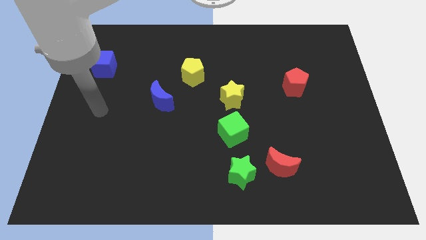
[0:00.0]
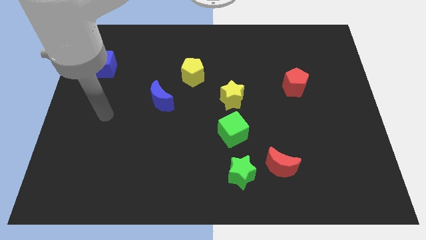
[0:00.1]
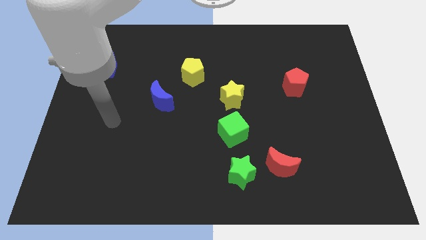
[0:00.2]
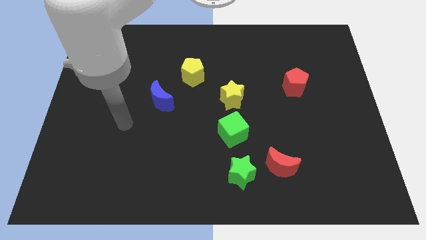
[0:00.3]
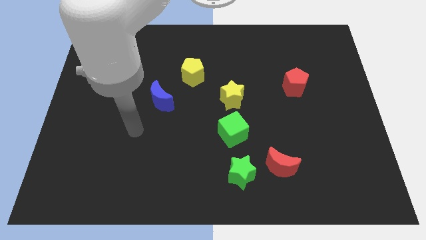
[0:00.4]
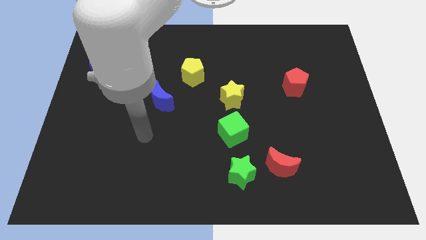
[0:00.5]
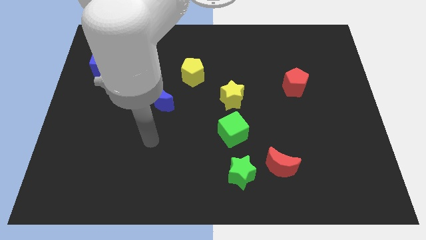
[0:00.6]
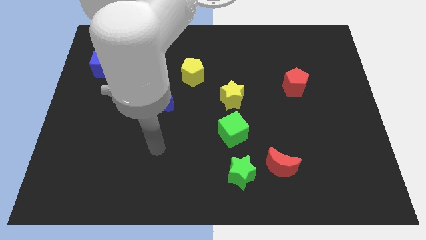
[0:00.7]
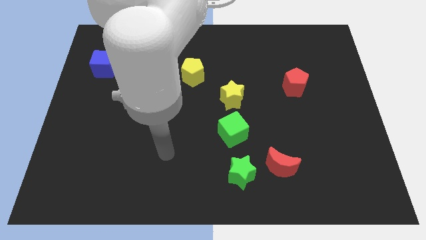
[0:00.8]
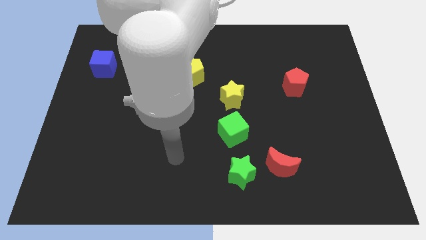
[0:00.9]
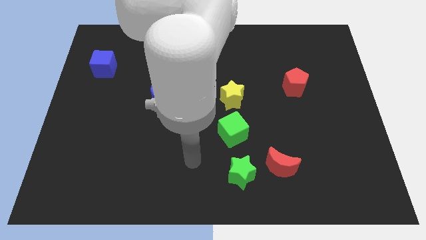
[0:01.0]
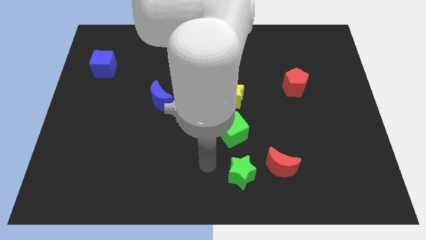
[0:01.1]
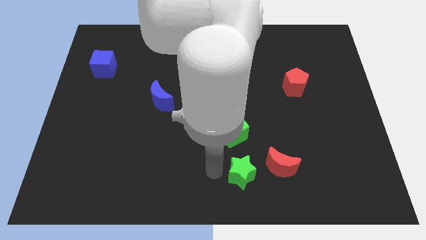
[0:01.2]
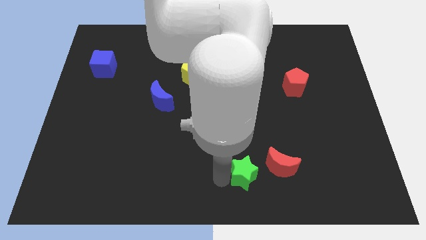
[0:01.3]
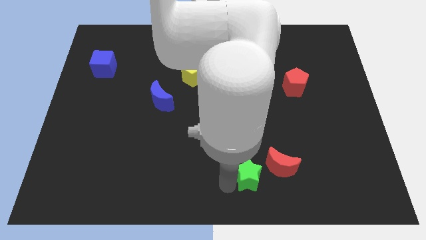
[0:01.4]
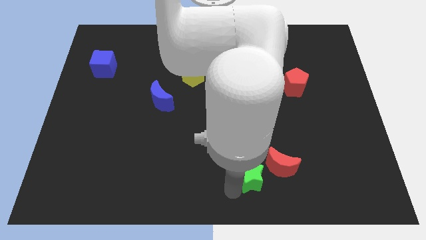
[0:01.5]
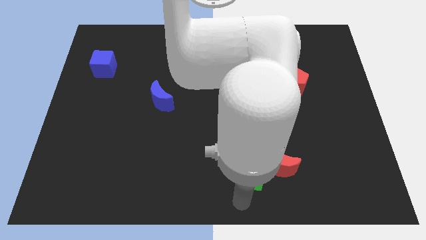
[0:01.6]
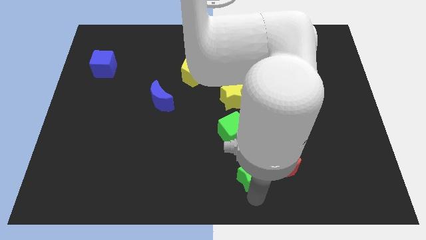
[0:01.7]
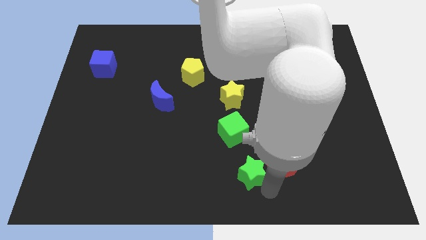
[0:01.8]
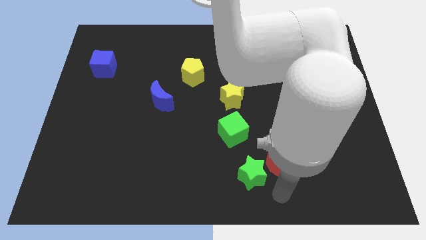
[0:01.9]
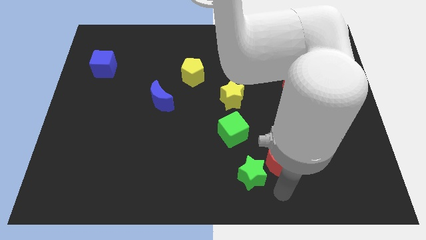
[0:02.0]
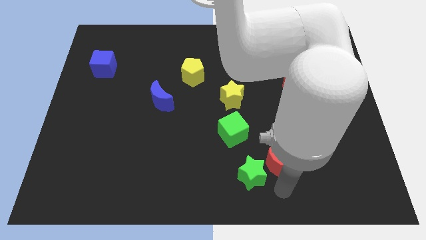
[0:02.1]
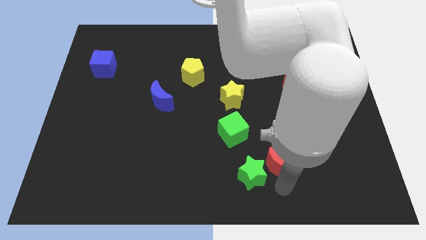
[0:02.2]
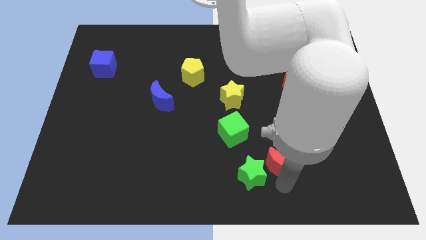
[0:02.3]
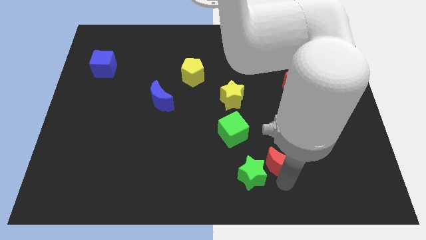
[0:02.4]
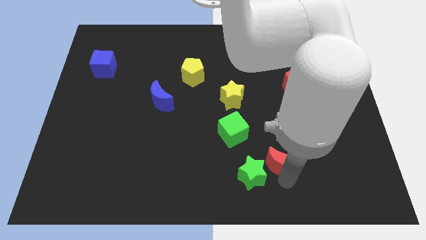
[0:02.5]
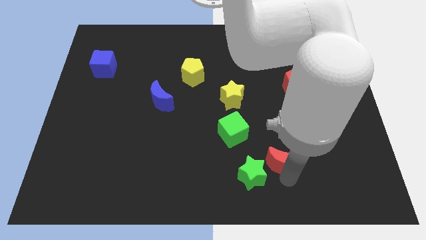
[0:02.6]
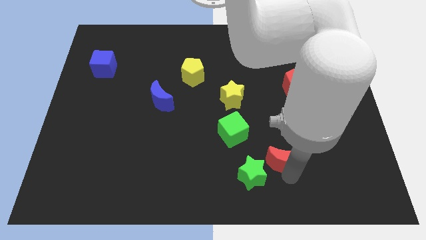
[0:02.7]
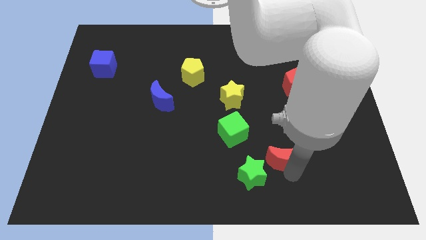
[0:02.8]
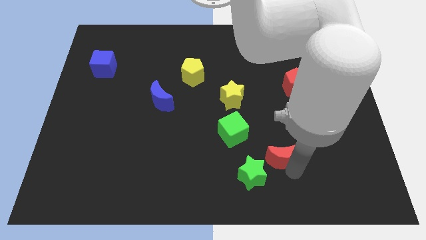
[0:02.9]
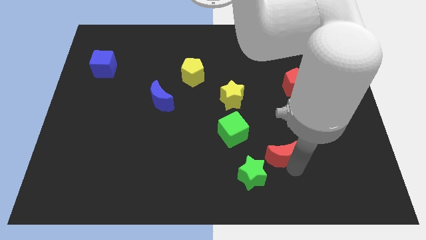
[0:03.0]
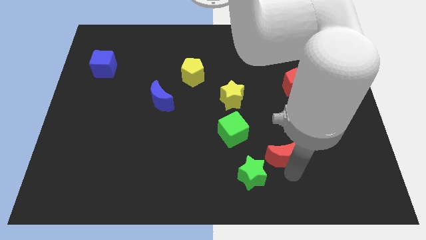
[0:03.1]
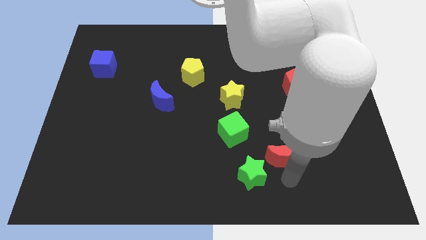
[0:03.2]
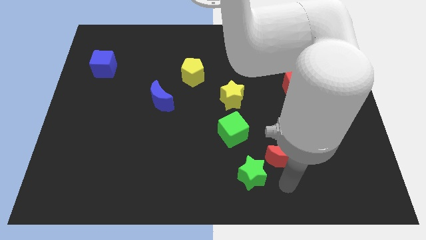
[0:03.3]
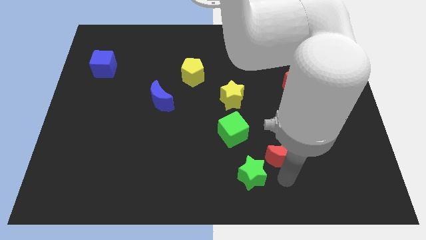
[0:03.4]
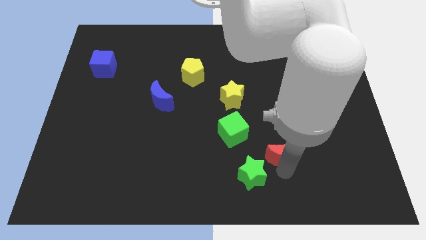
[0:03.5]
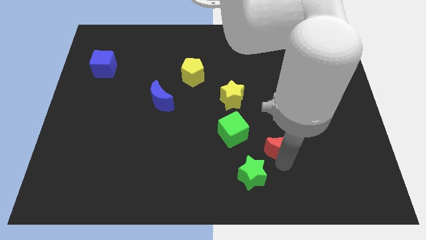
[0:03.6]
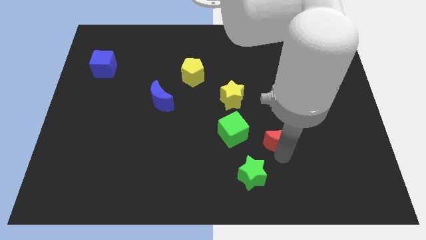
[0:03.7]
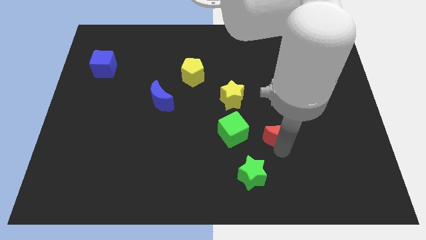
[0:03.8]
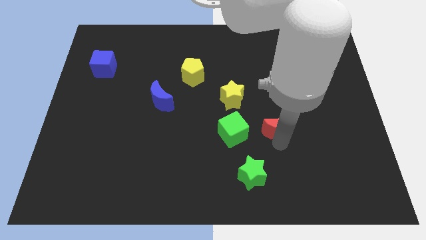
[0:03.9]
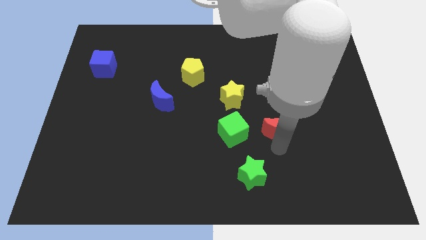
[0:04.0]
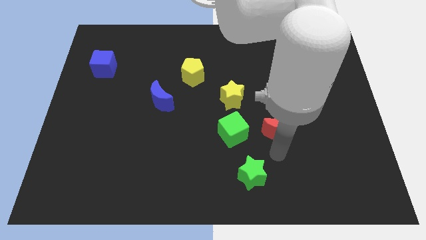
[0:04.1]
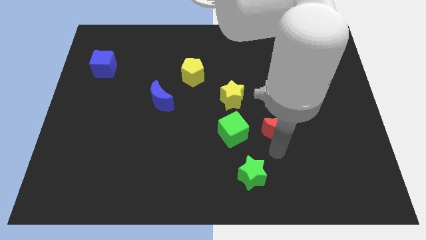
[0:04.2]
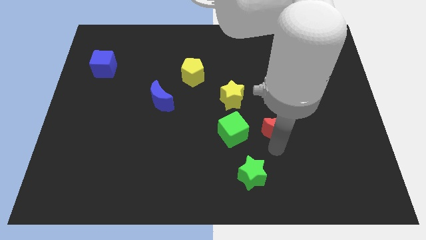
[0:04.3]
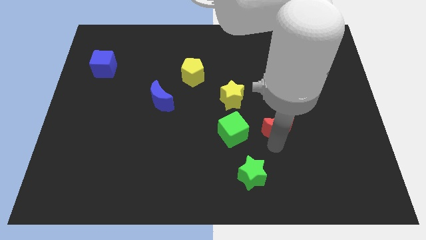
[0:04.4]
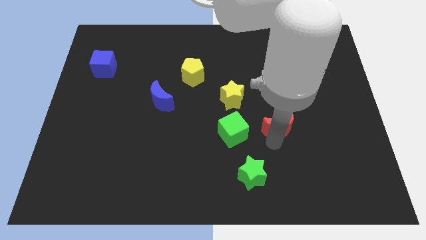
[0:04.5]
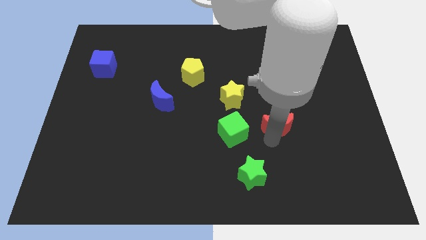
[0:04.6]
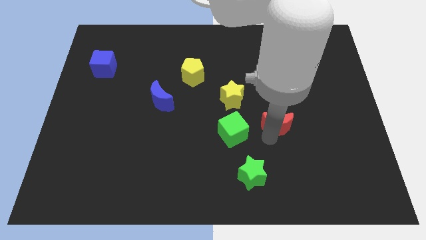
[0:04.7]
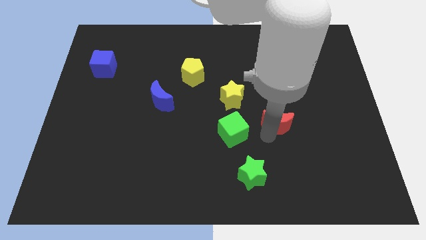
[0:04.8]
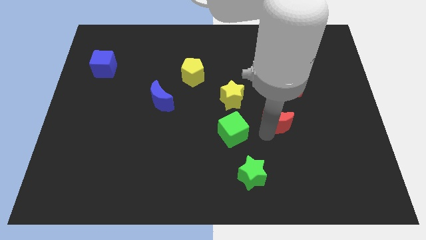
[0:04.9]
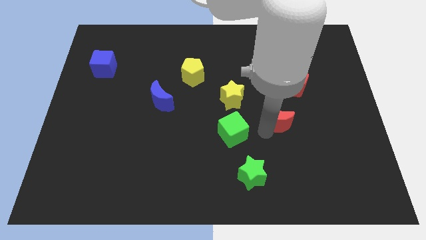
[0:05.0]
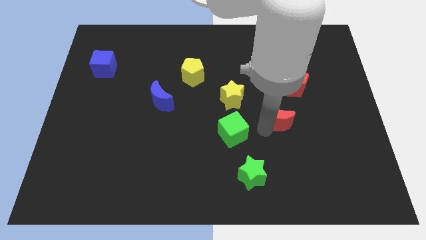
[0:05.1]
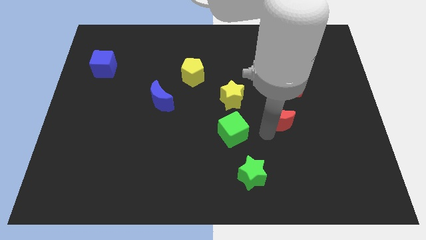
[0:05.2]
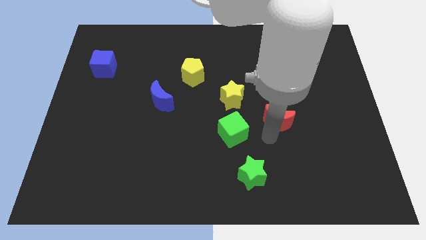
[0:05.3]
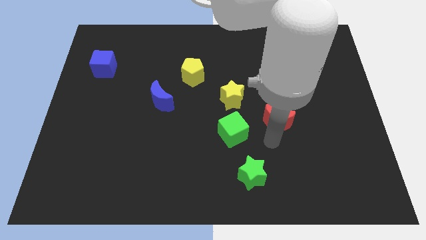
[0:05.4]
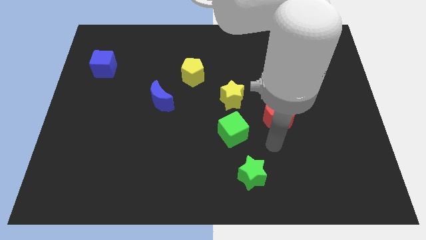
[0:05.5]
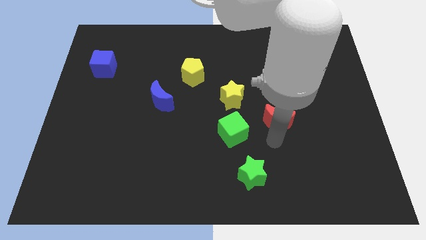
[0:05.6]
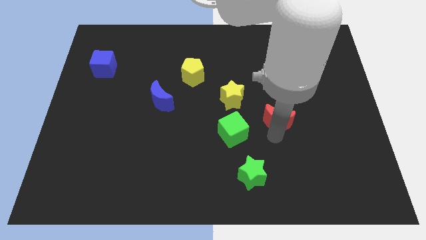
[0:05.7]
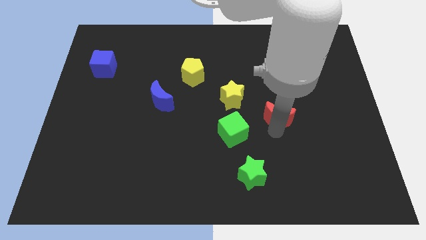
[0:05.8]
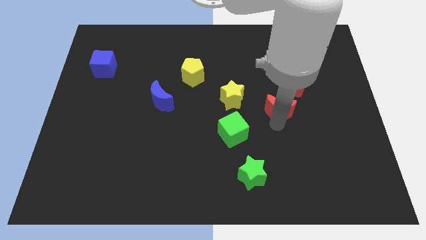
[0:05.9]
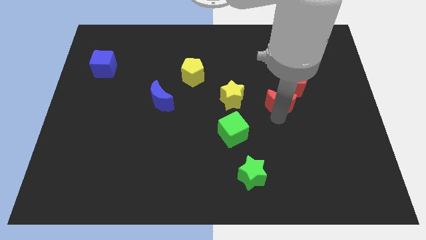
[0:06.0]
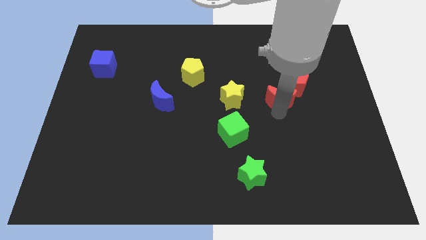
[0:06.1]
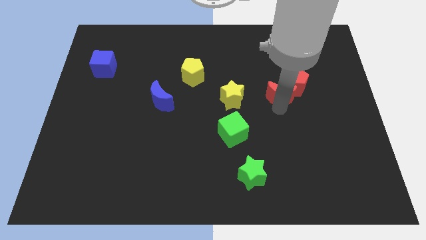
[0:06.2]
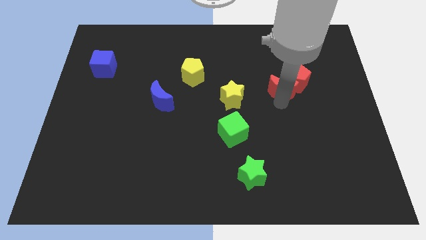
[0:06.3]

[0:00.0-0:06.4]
move the red moon up

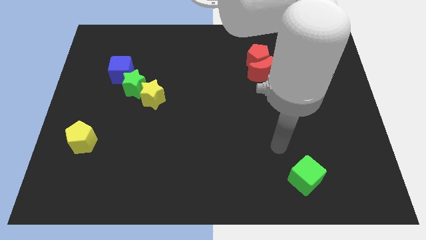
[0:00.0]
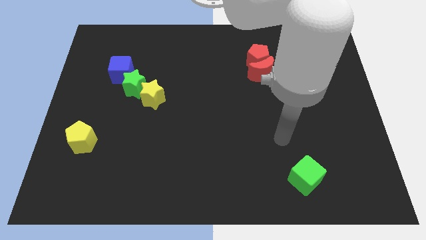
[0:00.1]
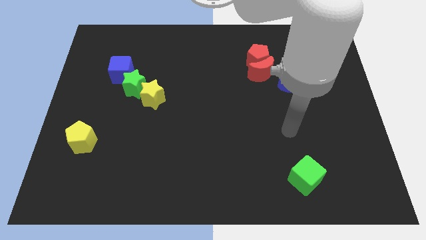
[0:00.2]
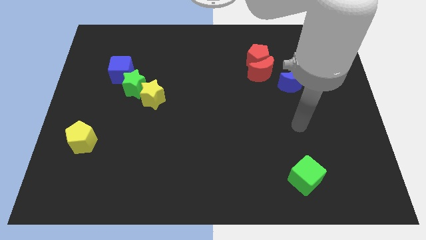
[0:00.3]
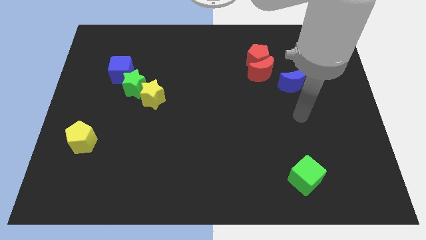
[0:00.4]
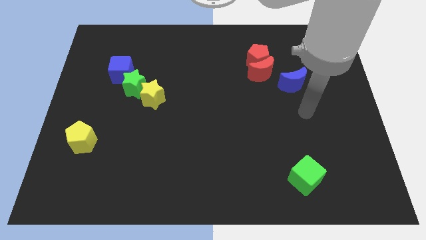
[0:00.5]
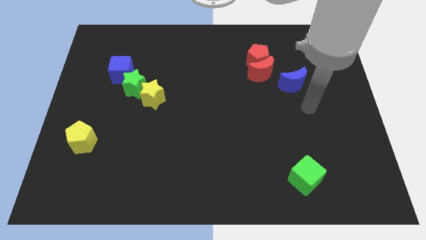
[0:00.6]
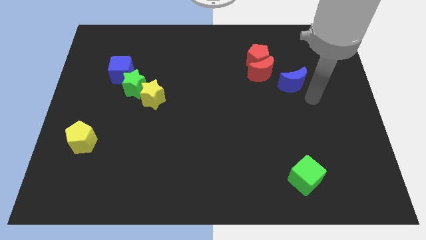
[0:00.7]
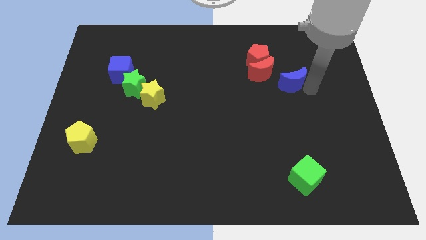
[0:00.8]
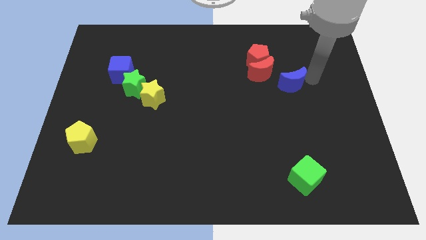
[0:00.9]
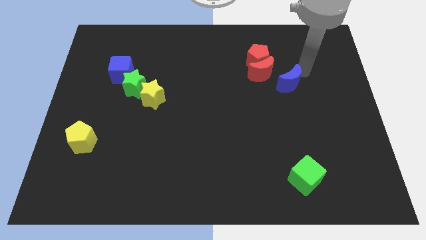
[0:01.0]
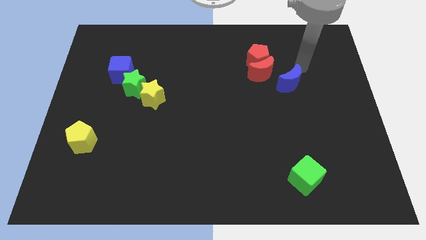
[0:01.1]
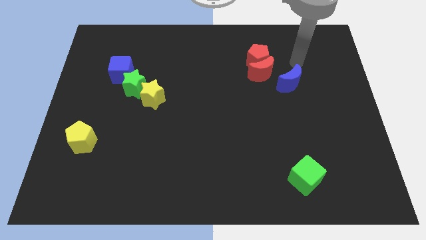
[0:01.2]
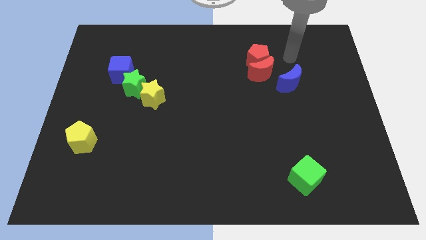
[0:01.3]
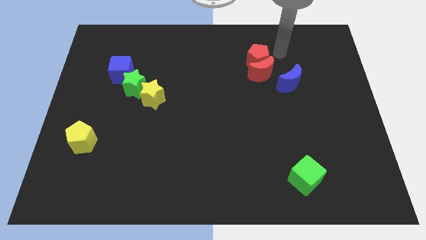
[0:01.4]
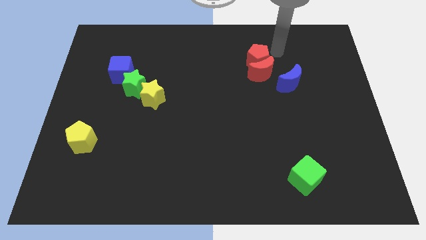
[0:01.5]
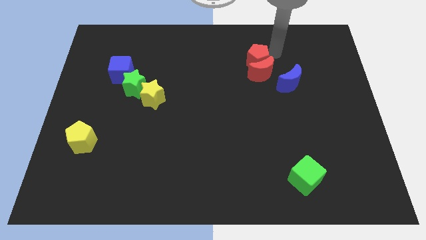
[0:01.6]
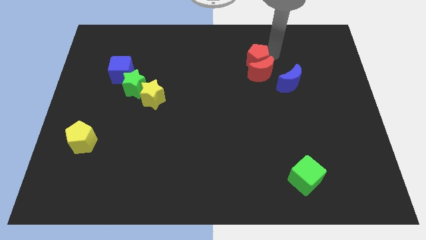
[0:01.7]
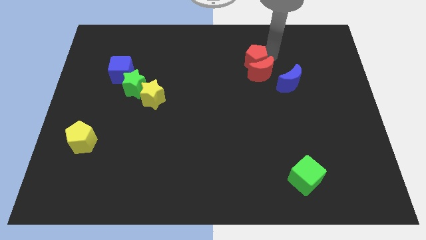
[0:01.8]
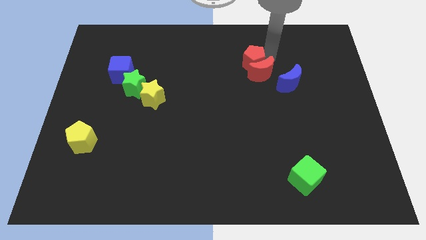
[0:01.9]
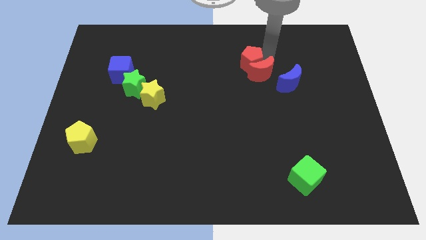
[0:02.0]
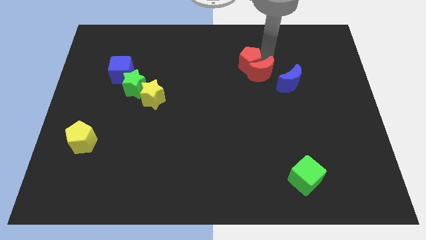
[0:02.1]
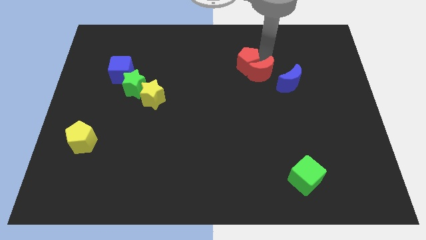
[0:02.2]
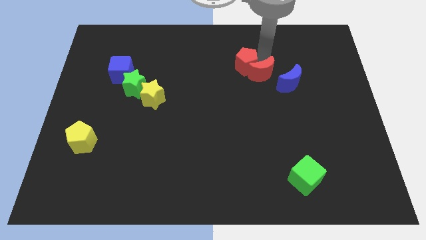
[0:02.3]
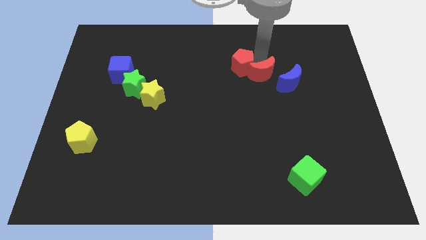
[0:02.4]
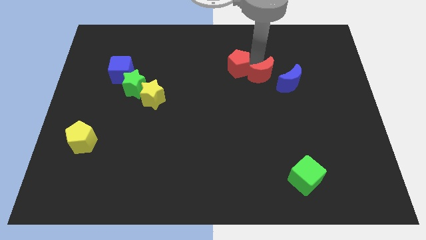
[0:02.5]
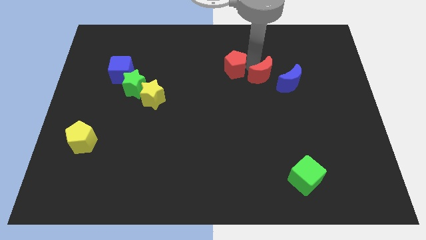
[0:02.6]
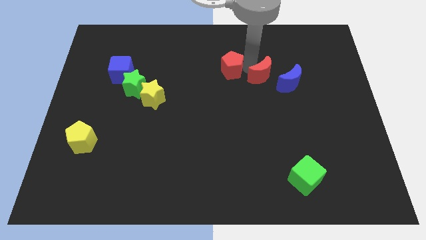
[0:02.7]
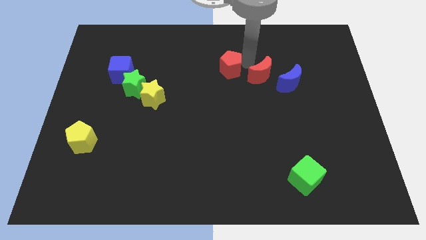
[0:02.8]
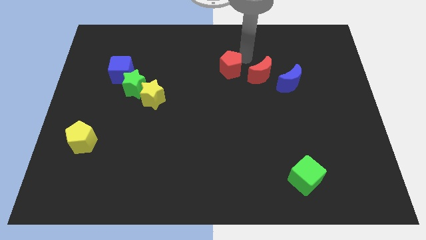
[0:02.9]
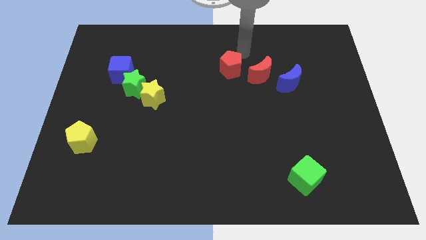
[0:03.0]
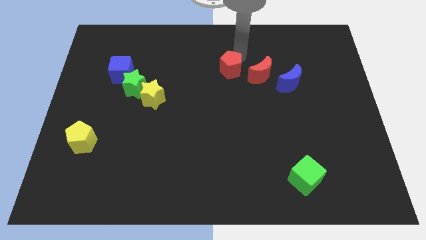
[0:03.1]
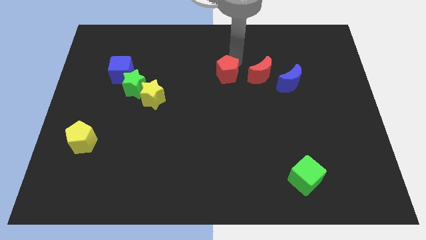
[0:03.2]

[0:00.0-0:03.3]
slightly move the red pentagon down and to the left diagonally
